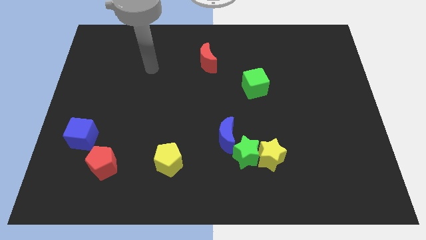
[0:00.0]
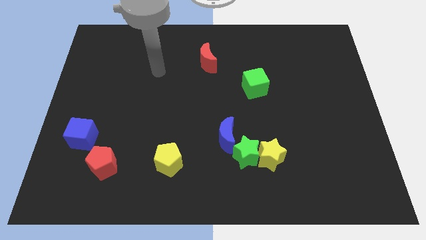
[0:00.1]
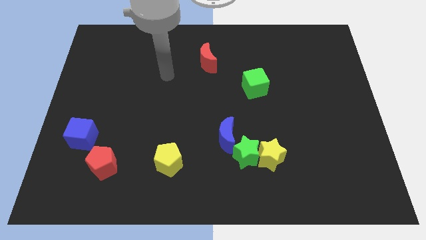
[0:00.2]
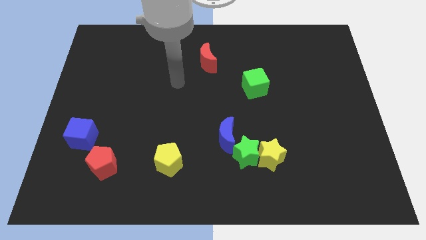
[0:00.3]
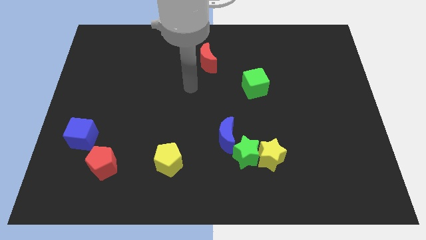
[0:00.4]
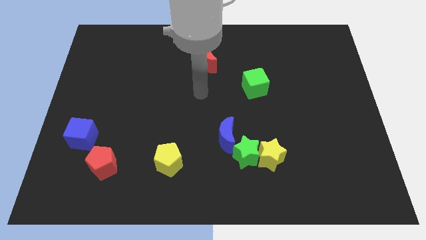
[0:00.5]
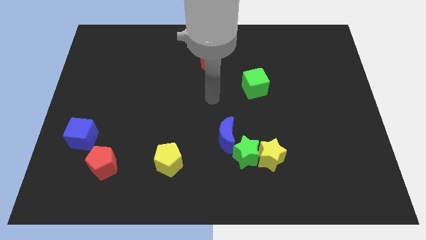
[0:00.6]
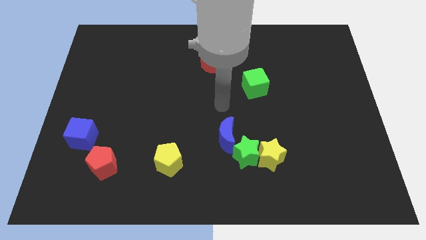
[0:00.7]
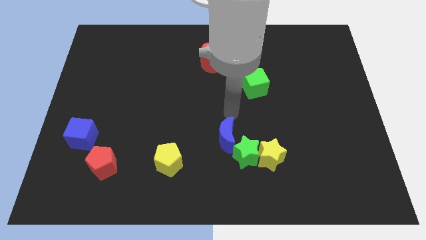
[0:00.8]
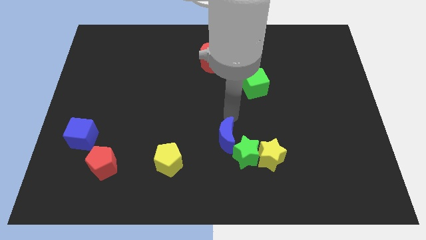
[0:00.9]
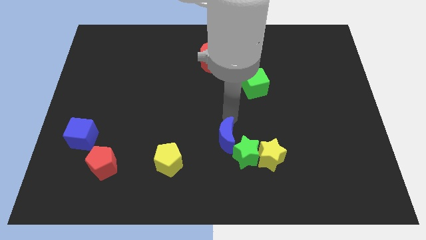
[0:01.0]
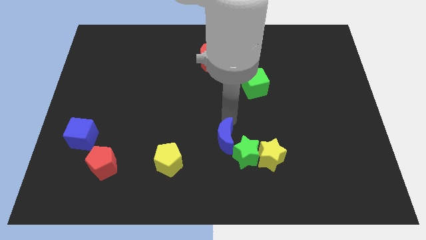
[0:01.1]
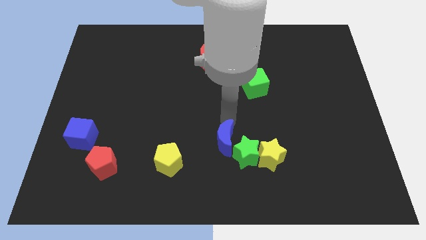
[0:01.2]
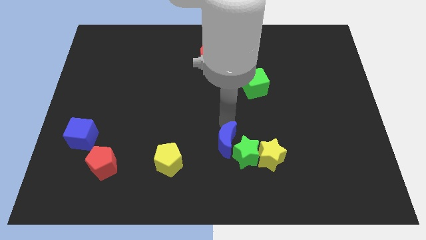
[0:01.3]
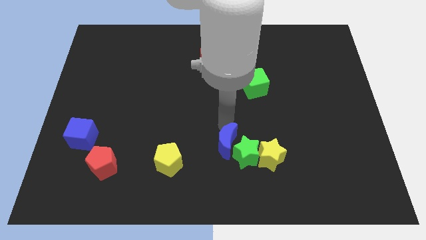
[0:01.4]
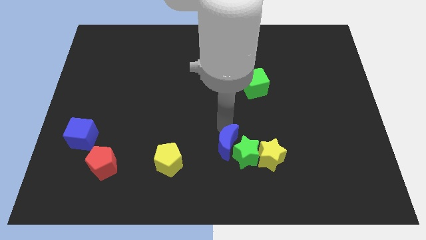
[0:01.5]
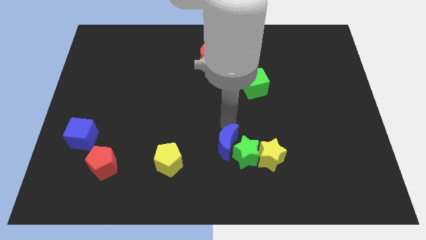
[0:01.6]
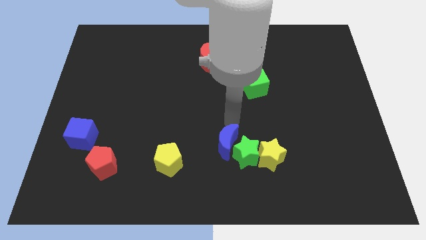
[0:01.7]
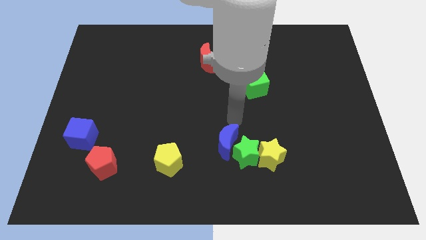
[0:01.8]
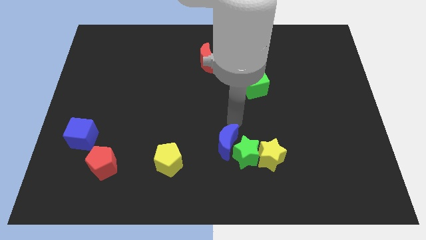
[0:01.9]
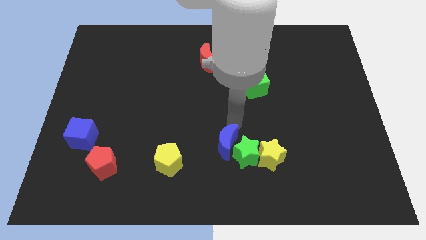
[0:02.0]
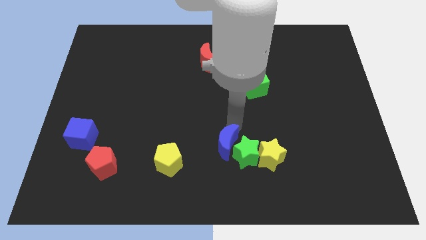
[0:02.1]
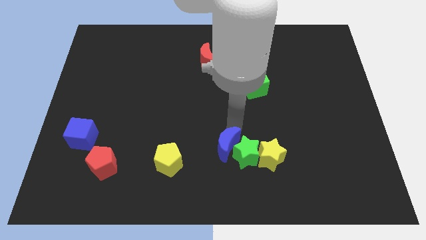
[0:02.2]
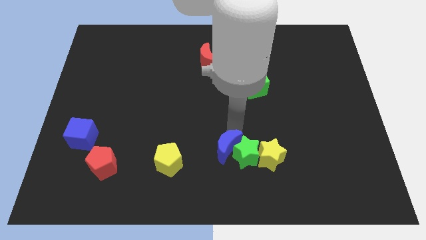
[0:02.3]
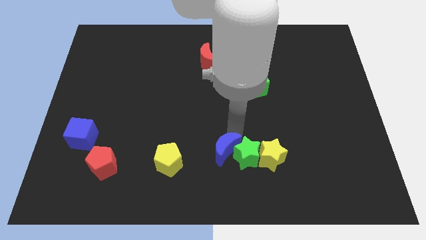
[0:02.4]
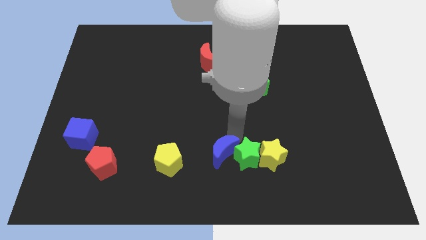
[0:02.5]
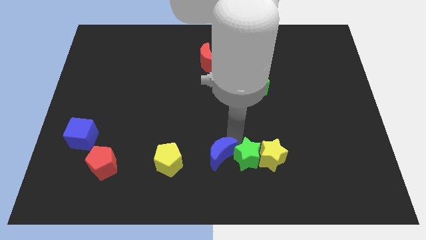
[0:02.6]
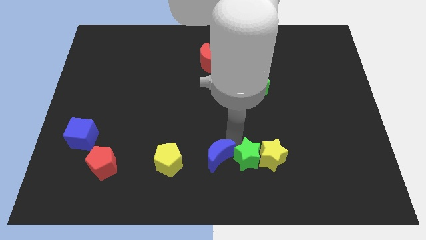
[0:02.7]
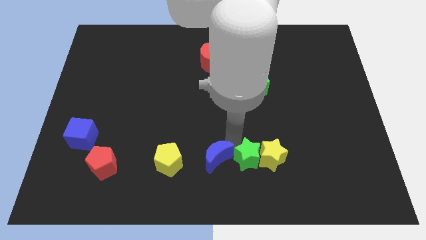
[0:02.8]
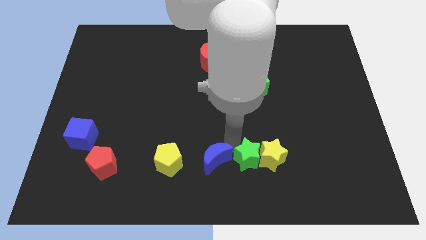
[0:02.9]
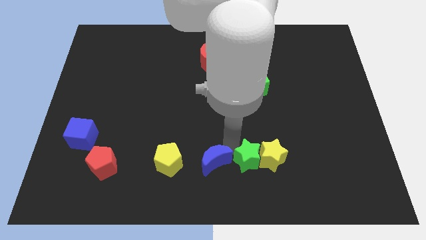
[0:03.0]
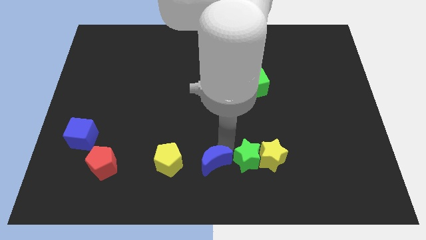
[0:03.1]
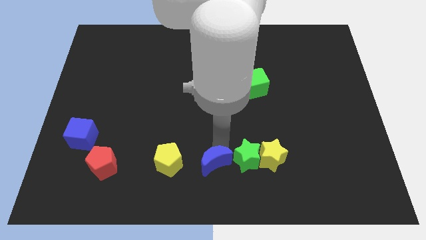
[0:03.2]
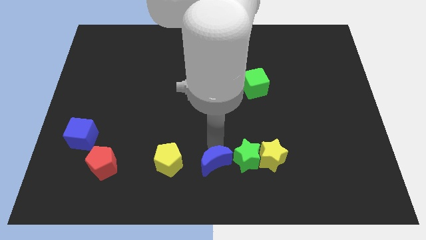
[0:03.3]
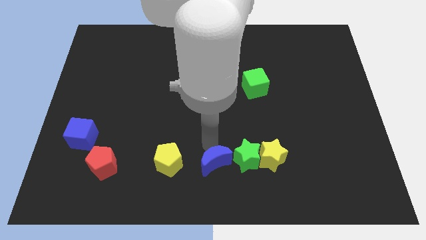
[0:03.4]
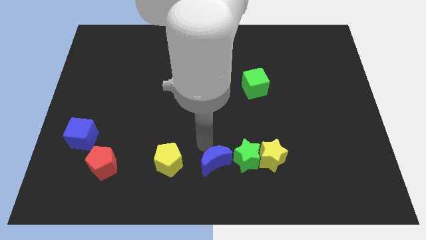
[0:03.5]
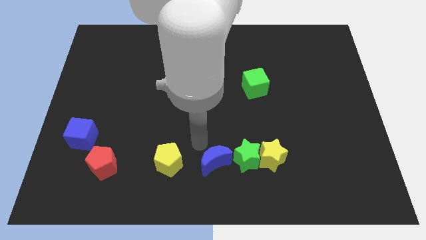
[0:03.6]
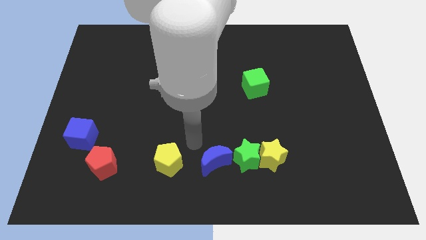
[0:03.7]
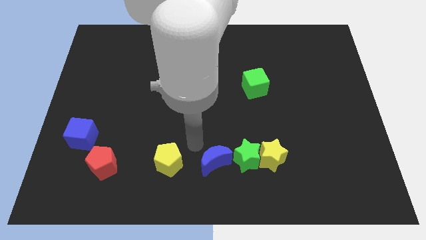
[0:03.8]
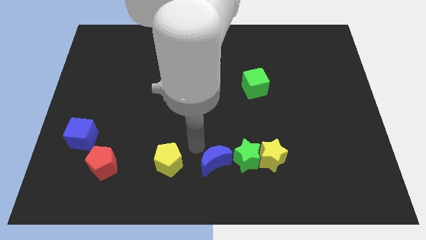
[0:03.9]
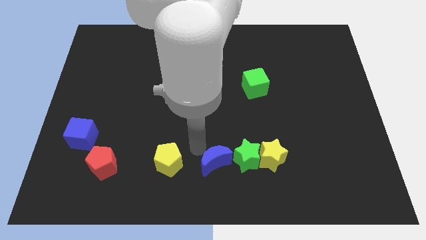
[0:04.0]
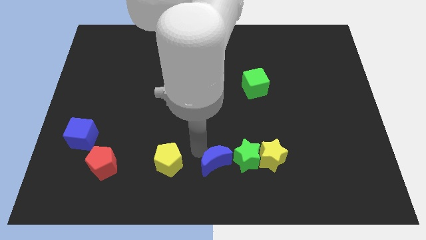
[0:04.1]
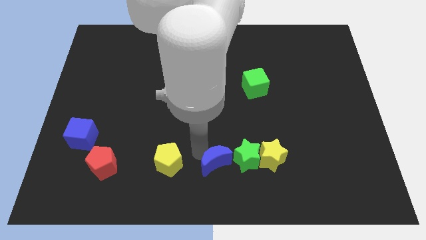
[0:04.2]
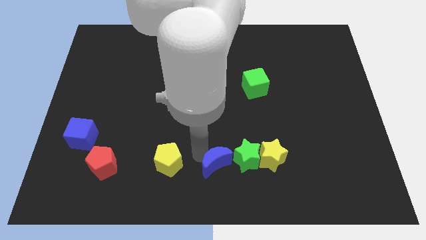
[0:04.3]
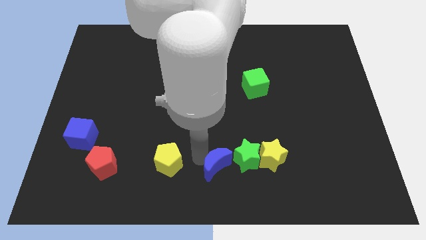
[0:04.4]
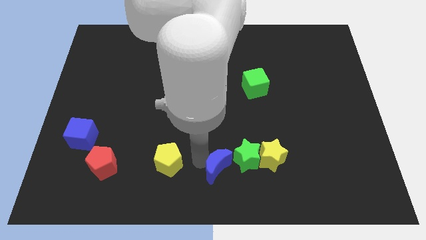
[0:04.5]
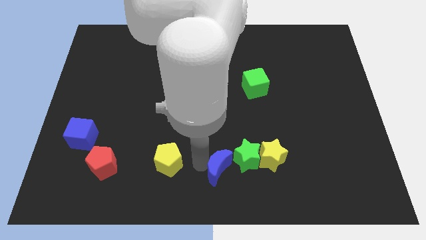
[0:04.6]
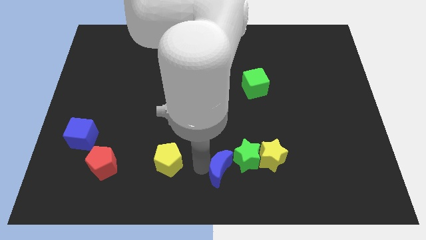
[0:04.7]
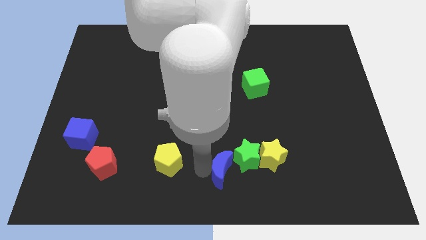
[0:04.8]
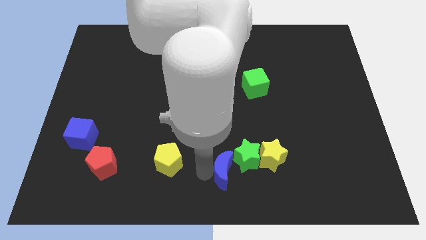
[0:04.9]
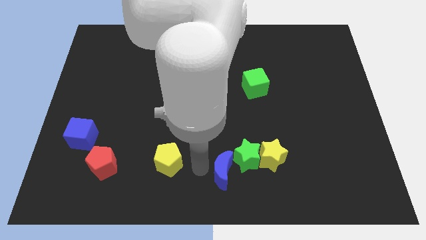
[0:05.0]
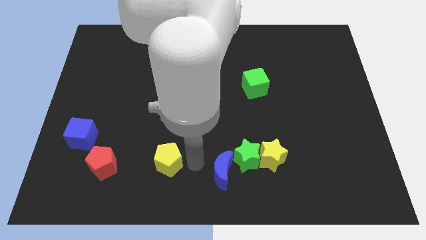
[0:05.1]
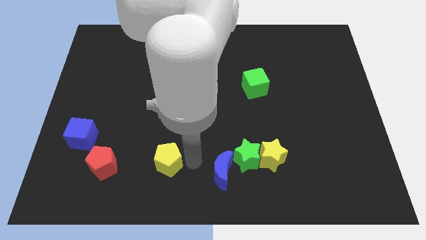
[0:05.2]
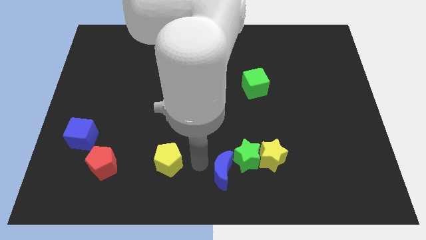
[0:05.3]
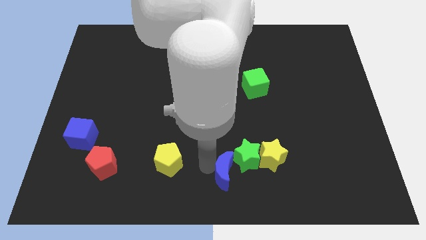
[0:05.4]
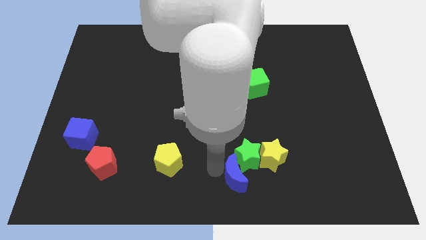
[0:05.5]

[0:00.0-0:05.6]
slide the blue moon diagonally down and to the left of the yellow star

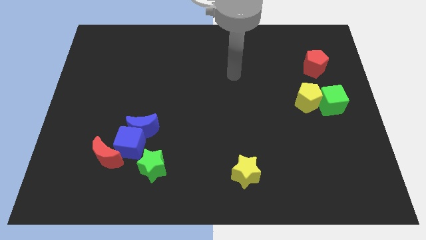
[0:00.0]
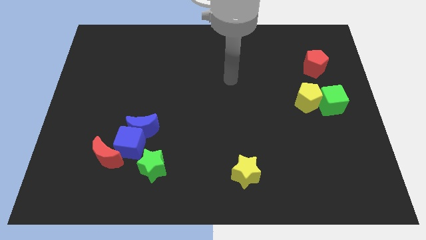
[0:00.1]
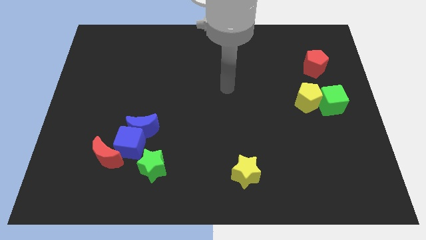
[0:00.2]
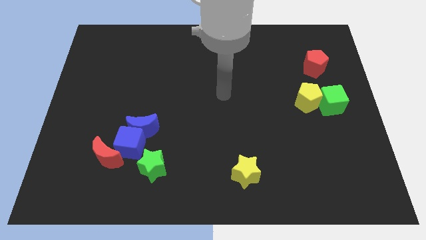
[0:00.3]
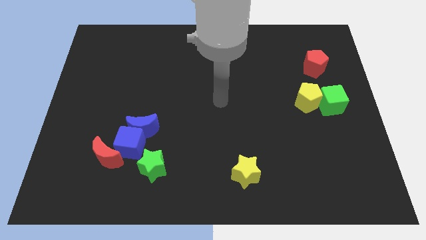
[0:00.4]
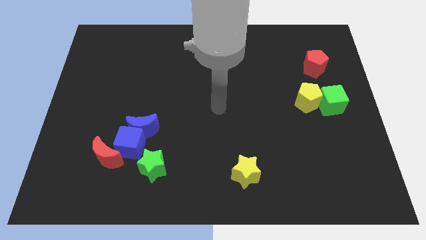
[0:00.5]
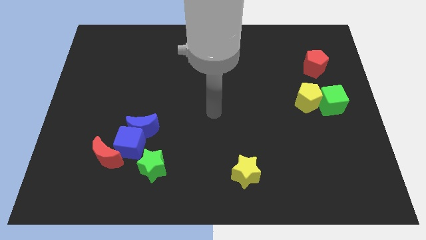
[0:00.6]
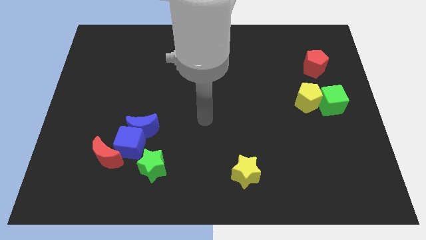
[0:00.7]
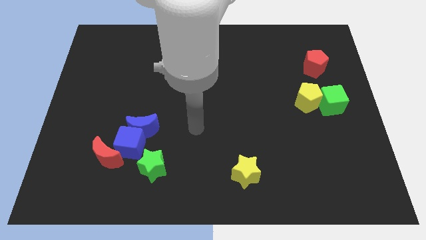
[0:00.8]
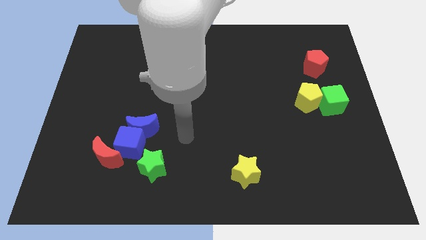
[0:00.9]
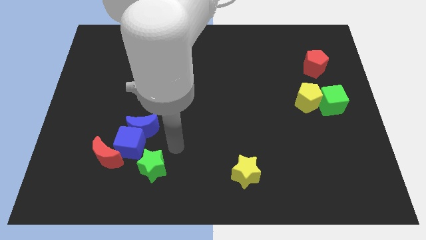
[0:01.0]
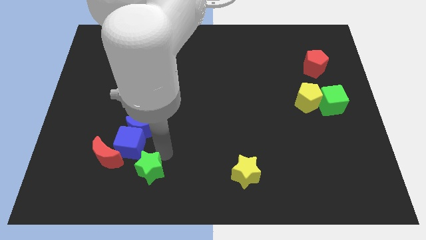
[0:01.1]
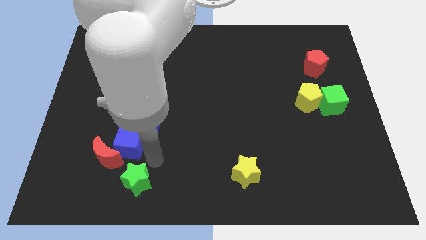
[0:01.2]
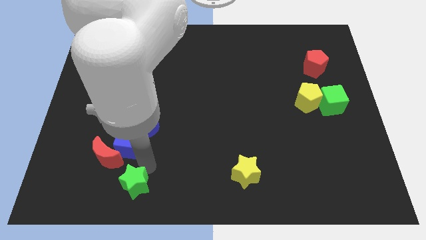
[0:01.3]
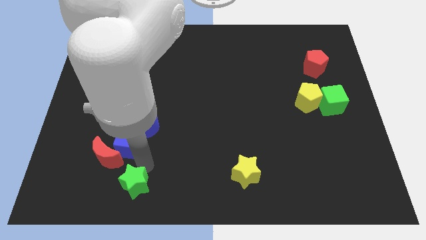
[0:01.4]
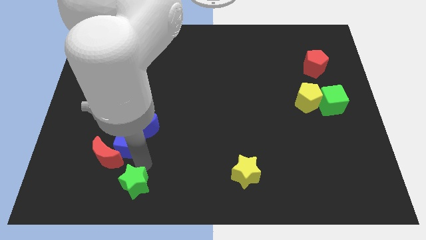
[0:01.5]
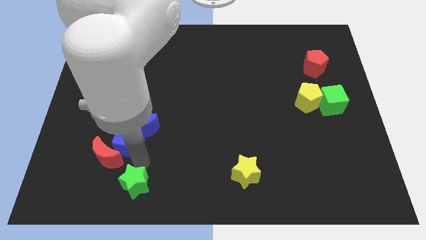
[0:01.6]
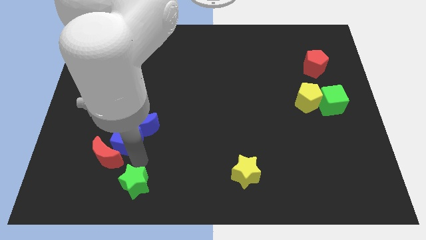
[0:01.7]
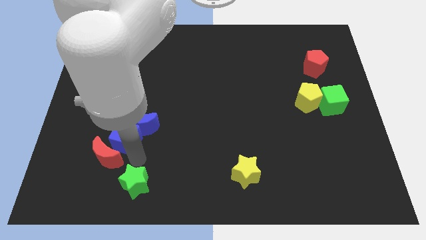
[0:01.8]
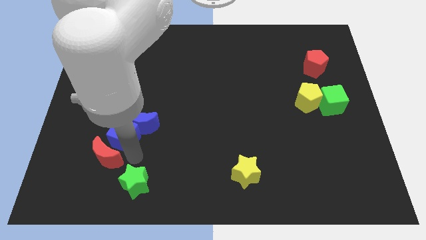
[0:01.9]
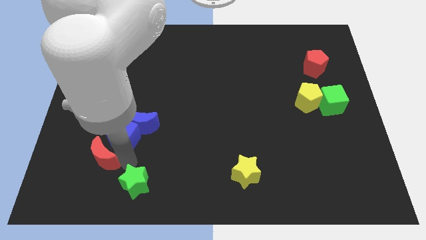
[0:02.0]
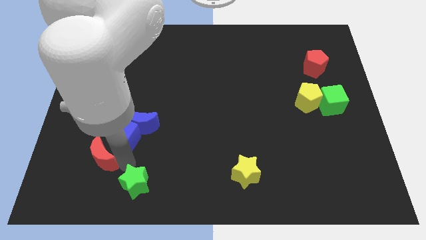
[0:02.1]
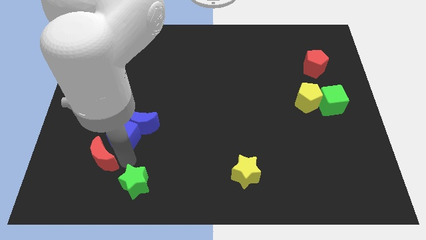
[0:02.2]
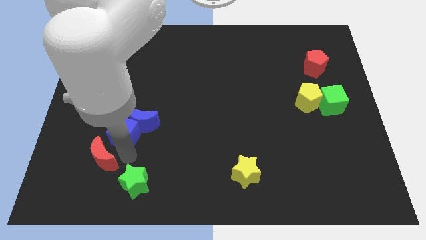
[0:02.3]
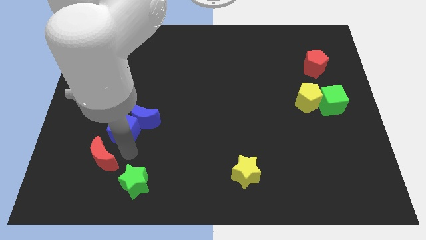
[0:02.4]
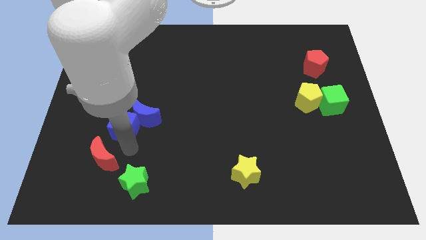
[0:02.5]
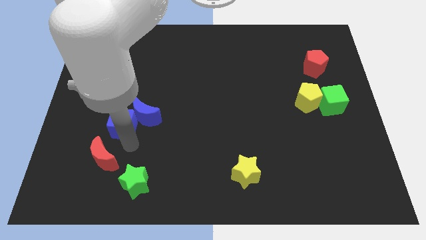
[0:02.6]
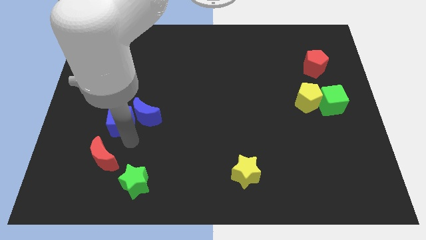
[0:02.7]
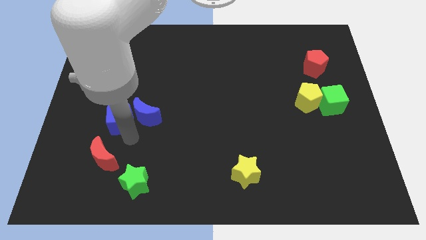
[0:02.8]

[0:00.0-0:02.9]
put the blue cube diagonally up and to the left of the blue moon
